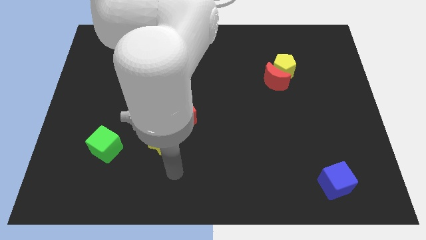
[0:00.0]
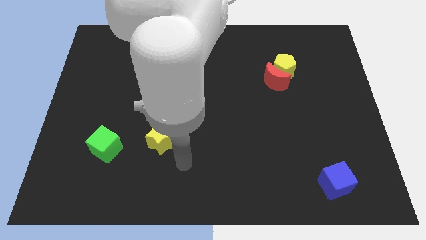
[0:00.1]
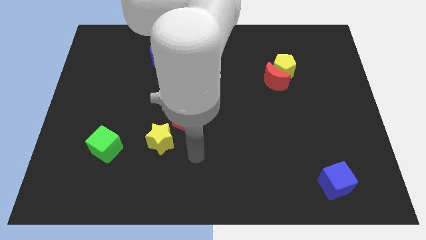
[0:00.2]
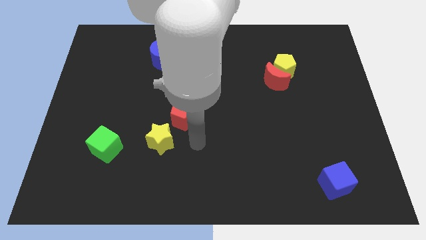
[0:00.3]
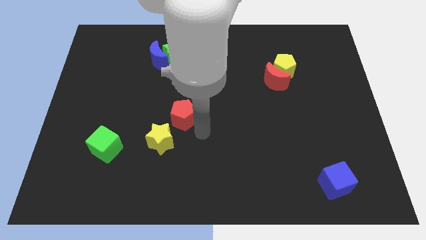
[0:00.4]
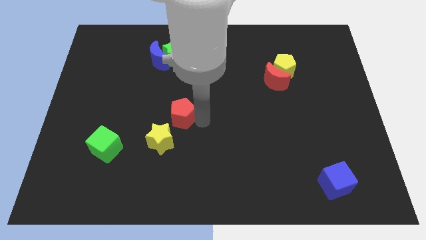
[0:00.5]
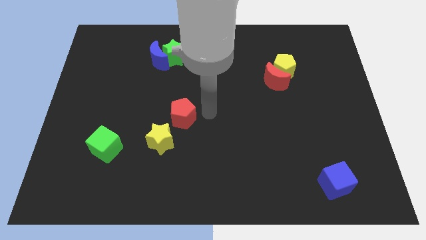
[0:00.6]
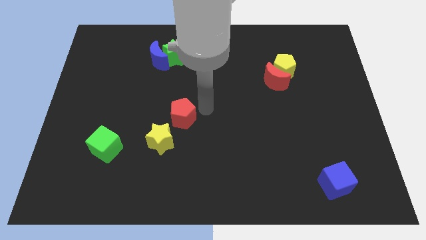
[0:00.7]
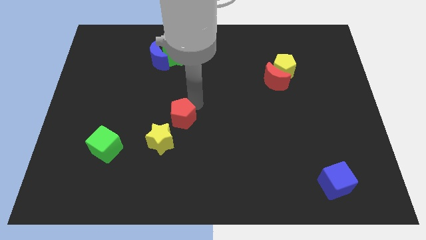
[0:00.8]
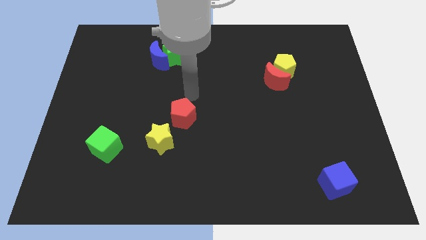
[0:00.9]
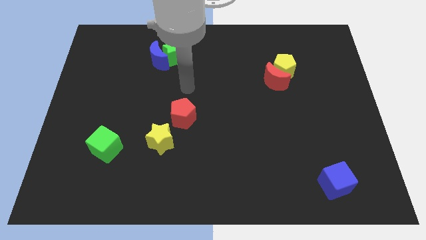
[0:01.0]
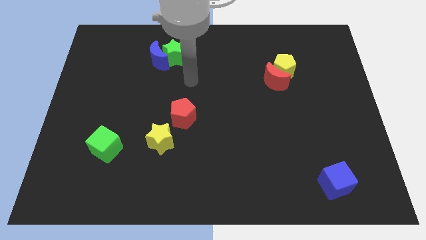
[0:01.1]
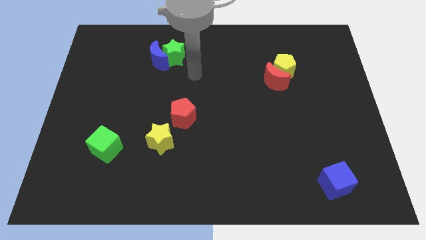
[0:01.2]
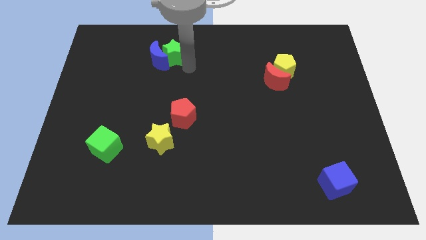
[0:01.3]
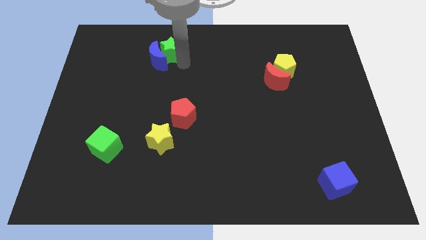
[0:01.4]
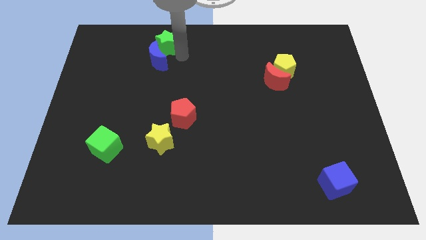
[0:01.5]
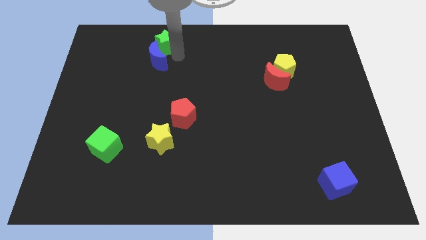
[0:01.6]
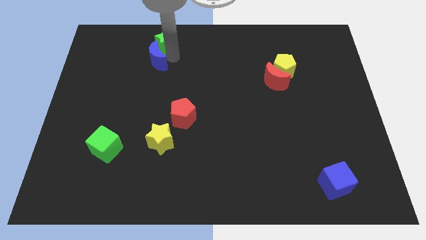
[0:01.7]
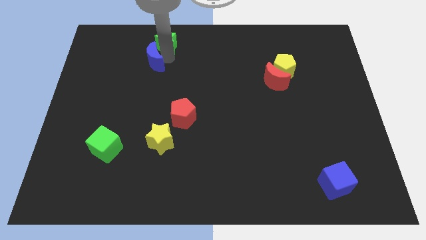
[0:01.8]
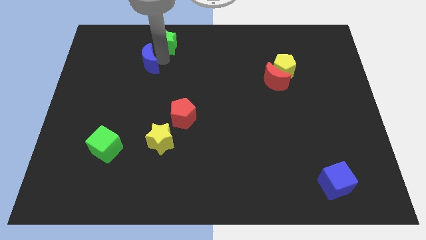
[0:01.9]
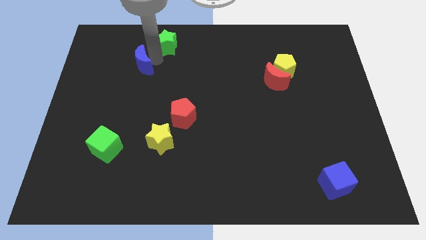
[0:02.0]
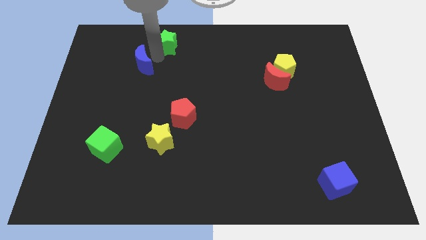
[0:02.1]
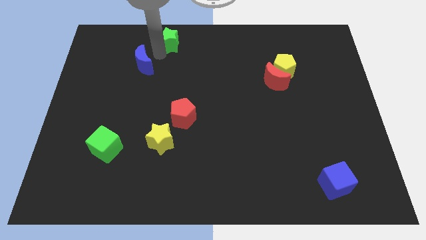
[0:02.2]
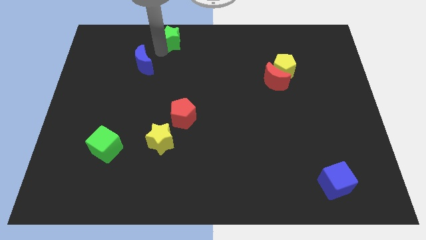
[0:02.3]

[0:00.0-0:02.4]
pull the blue moon apart from the green star

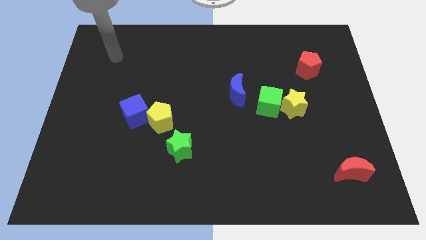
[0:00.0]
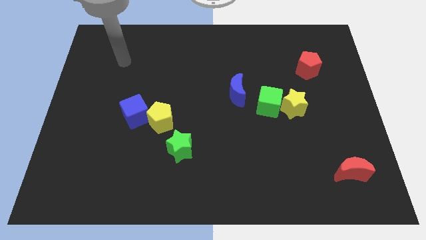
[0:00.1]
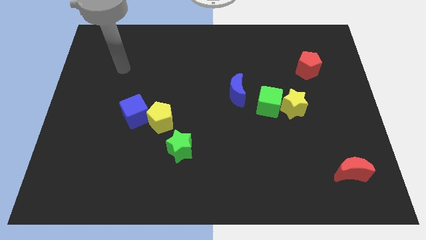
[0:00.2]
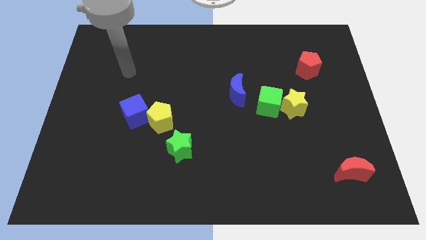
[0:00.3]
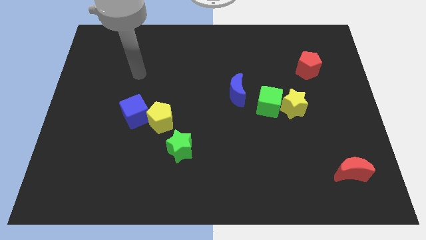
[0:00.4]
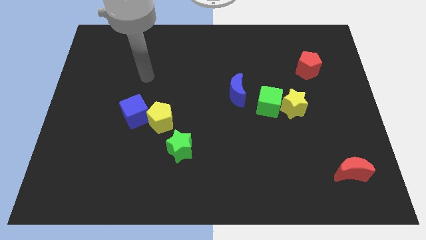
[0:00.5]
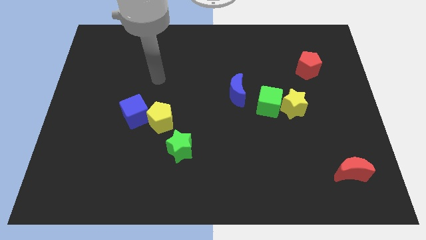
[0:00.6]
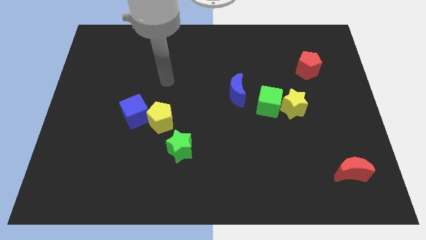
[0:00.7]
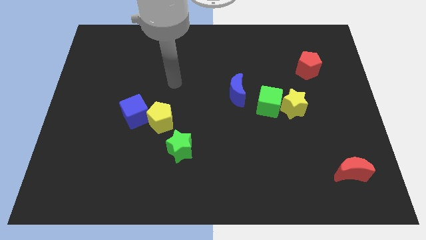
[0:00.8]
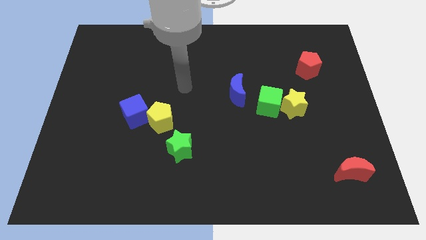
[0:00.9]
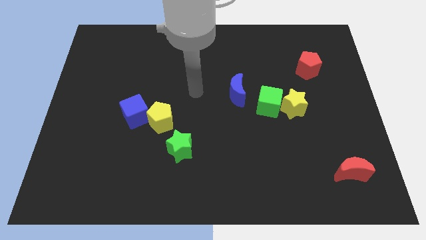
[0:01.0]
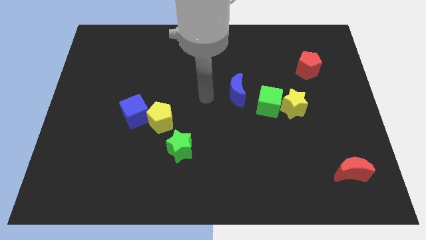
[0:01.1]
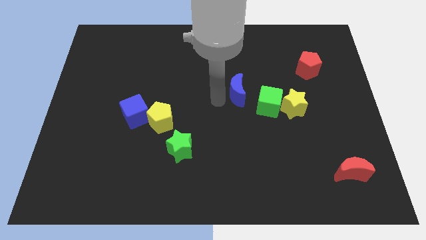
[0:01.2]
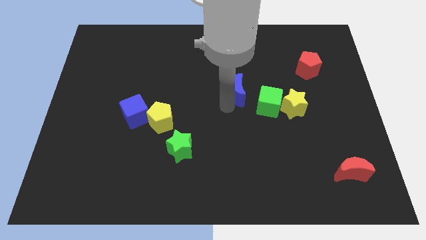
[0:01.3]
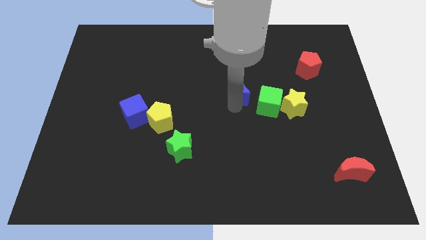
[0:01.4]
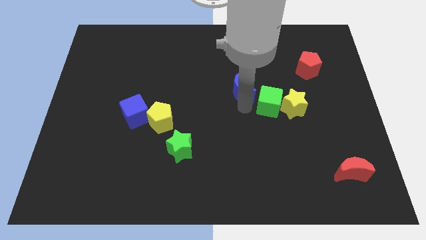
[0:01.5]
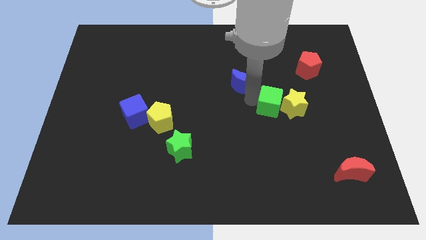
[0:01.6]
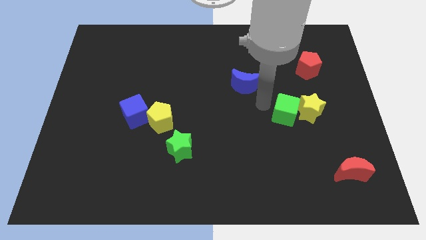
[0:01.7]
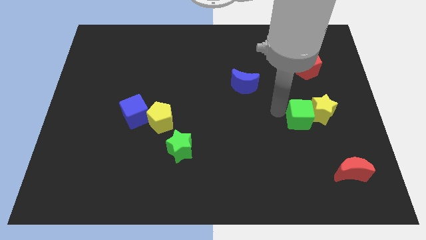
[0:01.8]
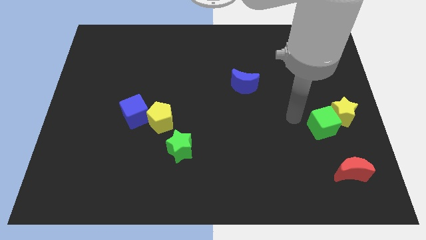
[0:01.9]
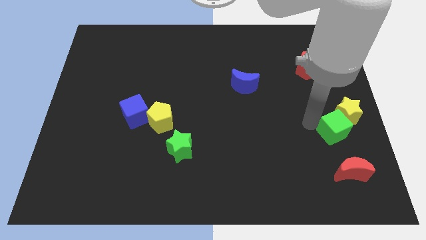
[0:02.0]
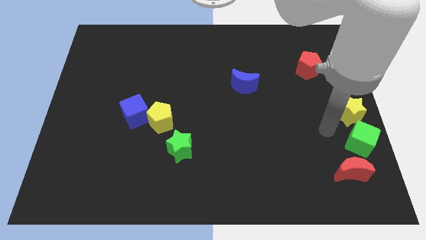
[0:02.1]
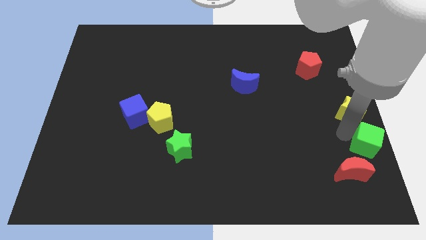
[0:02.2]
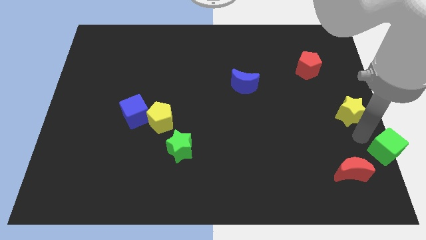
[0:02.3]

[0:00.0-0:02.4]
move the yellow star away from the green cube

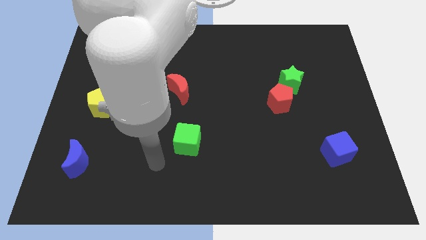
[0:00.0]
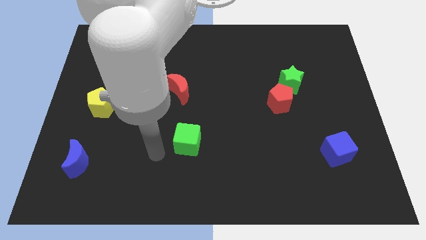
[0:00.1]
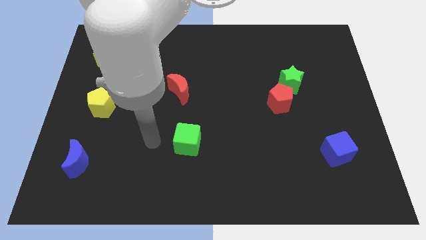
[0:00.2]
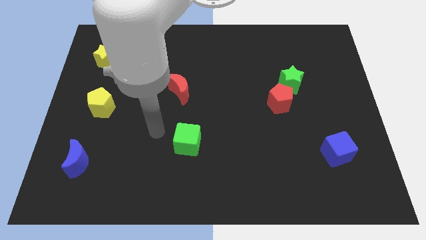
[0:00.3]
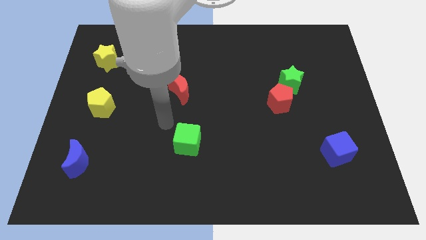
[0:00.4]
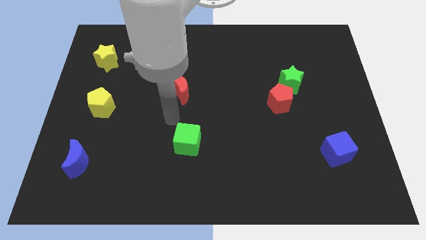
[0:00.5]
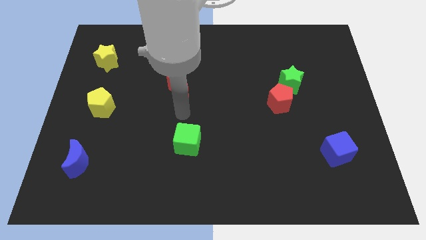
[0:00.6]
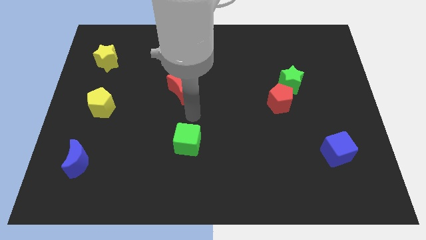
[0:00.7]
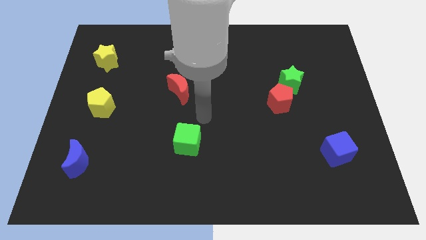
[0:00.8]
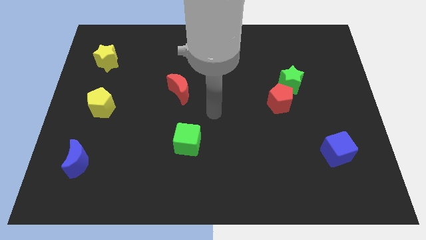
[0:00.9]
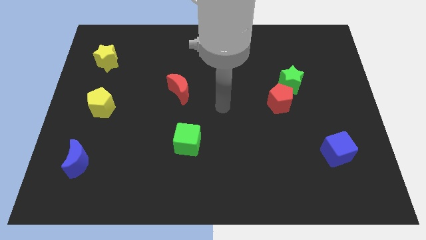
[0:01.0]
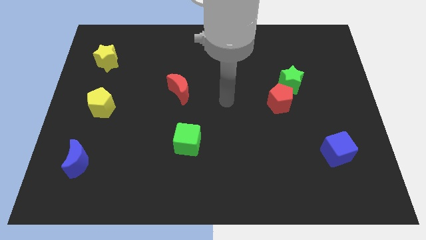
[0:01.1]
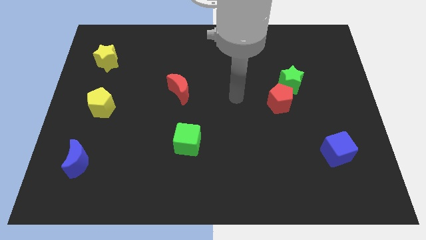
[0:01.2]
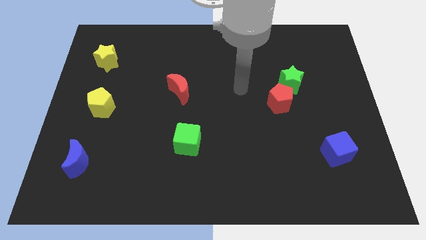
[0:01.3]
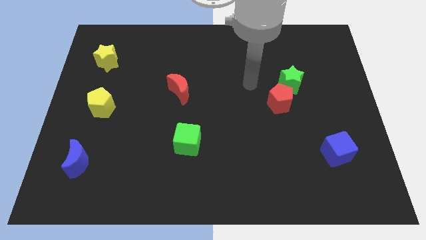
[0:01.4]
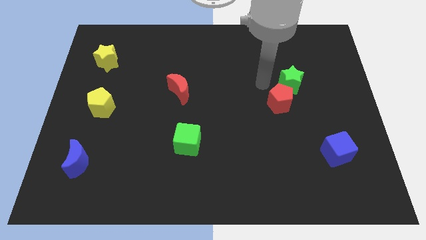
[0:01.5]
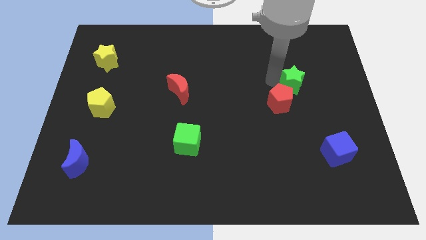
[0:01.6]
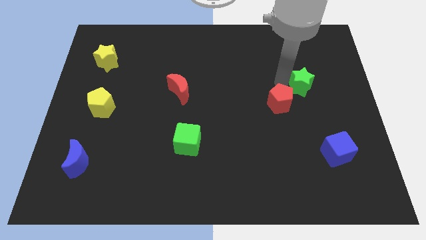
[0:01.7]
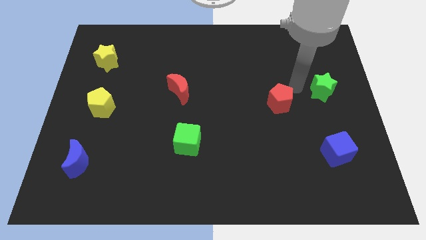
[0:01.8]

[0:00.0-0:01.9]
separate the red pentagon from the green star

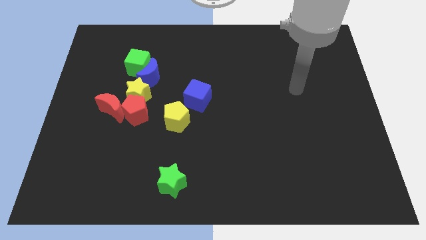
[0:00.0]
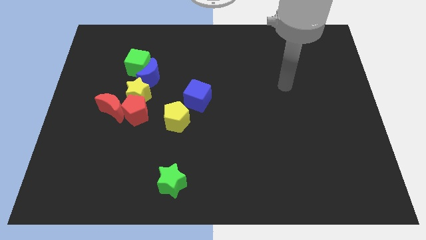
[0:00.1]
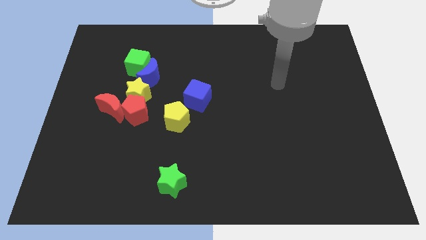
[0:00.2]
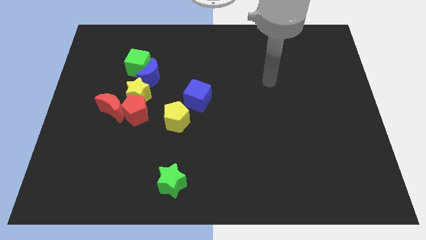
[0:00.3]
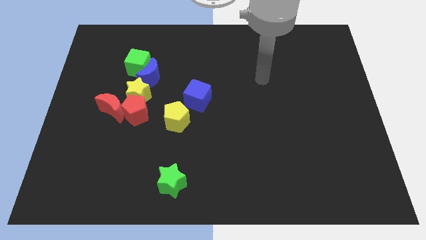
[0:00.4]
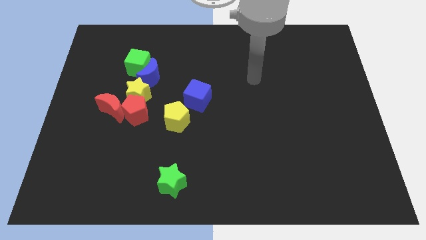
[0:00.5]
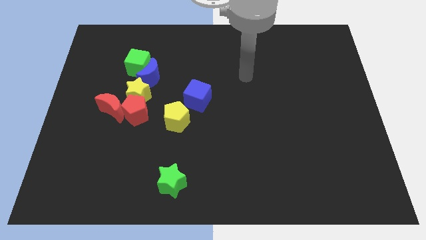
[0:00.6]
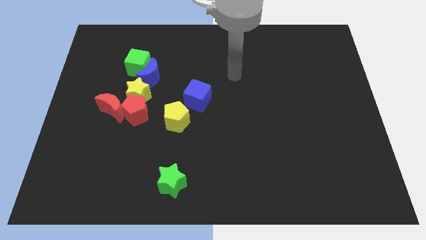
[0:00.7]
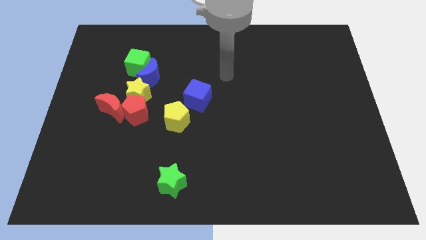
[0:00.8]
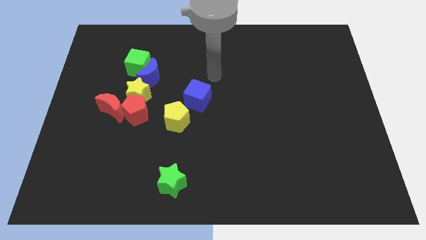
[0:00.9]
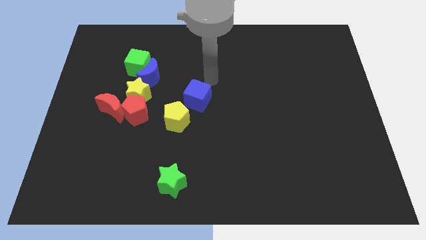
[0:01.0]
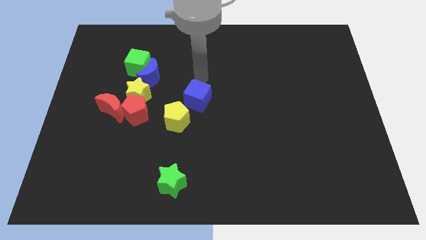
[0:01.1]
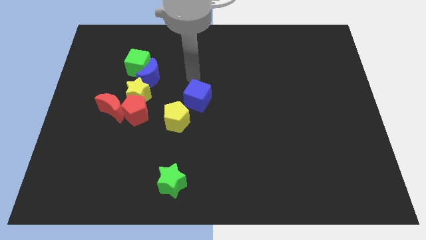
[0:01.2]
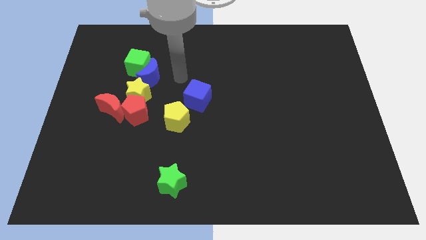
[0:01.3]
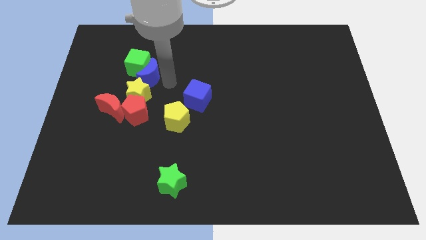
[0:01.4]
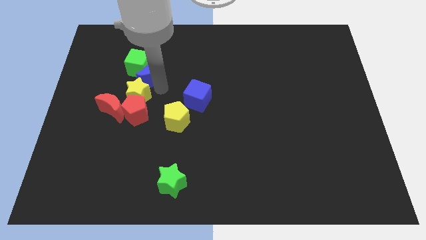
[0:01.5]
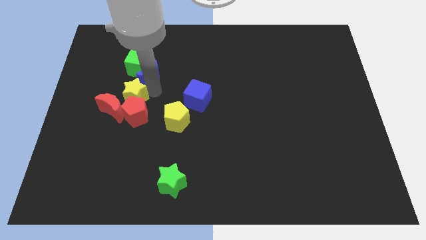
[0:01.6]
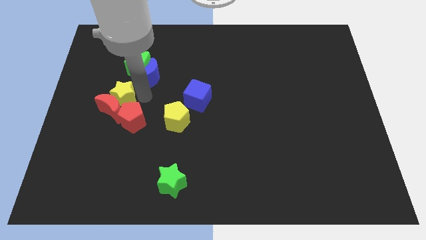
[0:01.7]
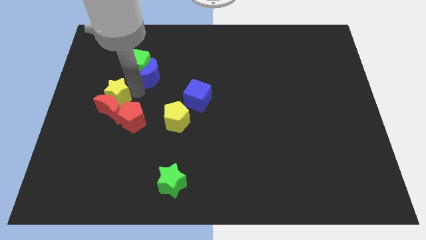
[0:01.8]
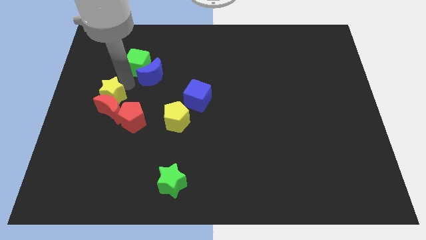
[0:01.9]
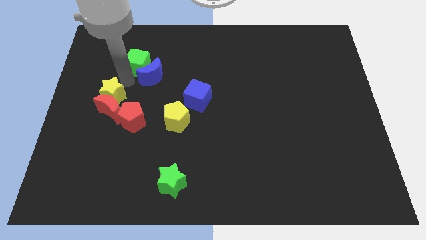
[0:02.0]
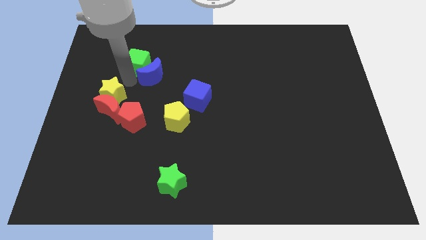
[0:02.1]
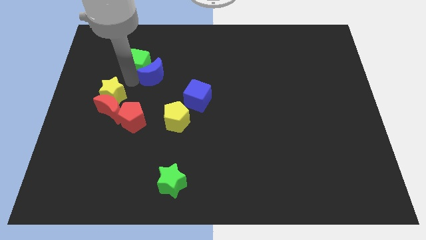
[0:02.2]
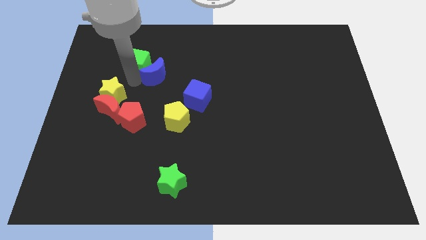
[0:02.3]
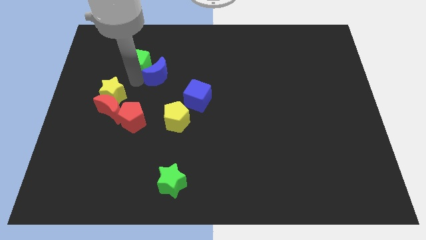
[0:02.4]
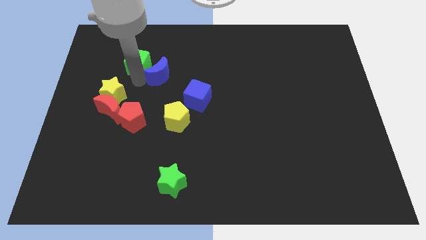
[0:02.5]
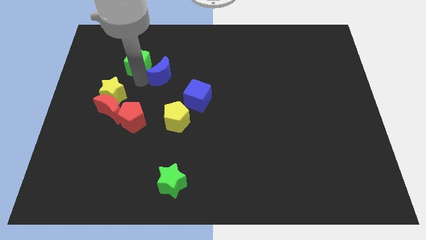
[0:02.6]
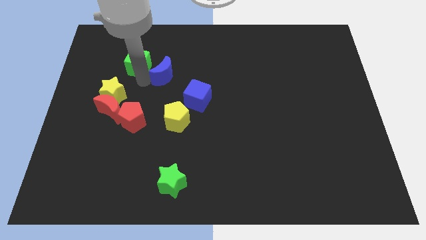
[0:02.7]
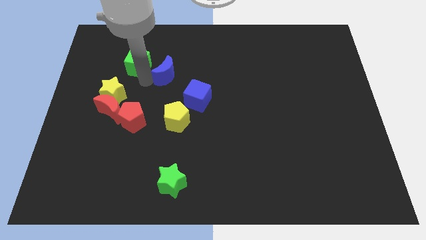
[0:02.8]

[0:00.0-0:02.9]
move the blue moon away from the green cube and yellow star
